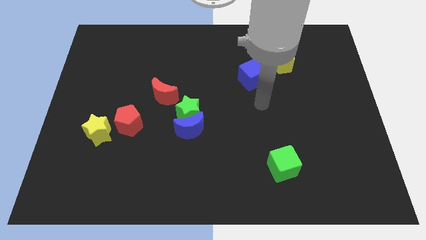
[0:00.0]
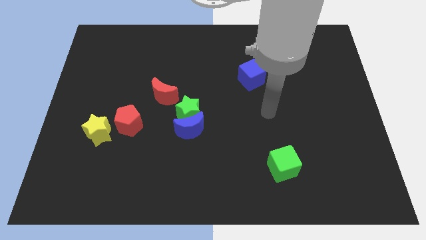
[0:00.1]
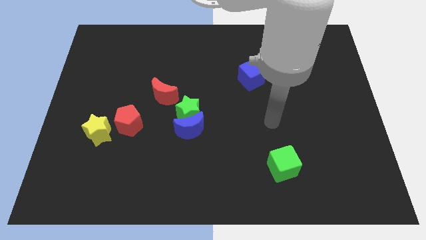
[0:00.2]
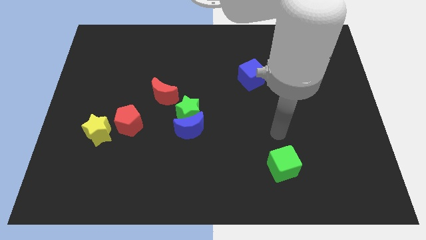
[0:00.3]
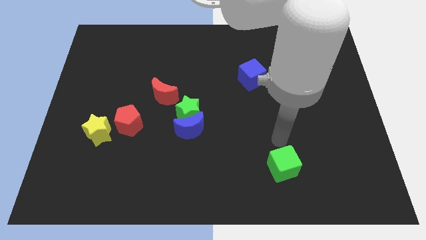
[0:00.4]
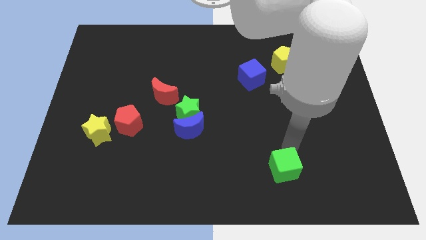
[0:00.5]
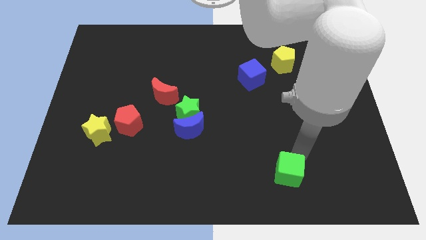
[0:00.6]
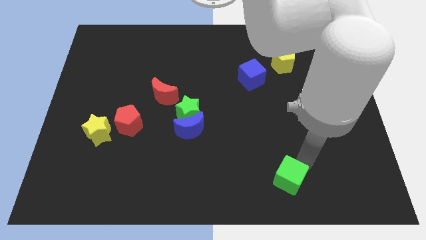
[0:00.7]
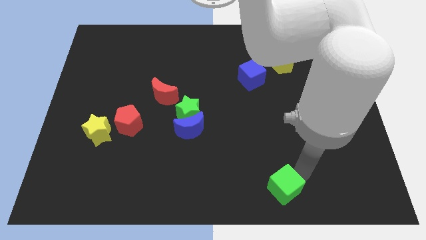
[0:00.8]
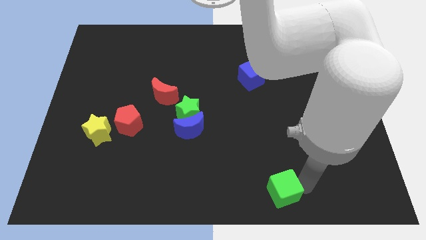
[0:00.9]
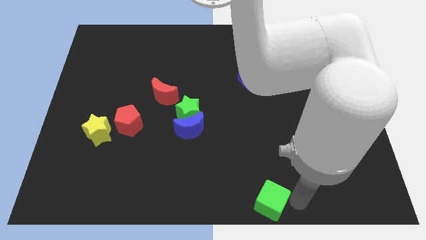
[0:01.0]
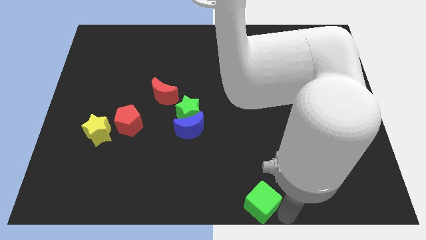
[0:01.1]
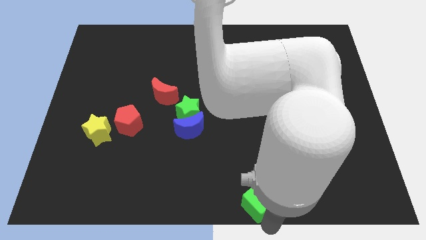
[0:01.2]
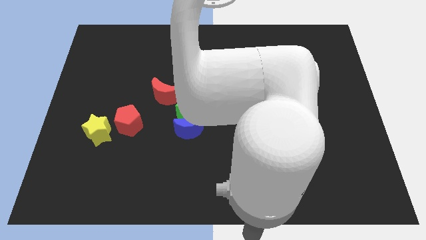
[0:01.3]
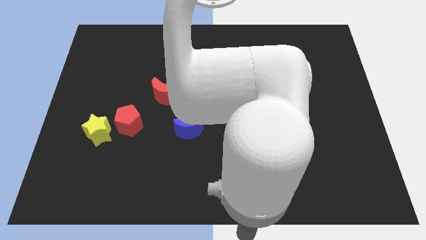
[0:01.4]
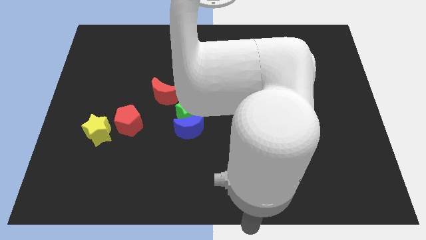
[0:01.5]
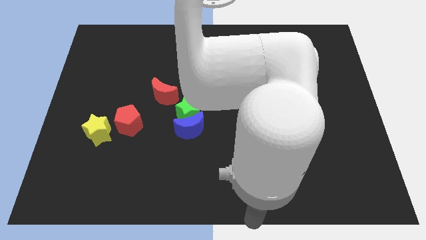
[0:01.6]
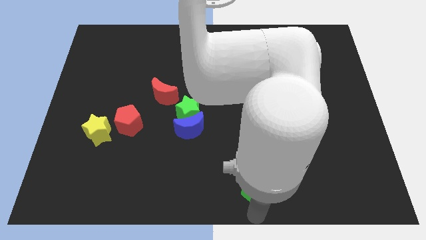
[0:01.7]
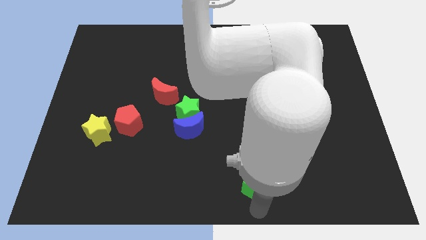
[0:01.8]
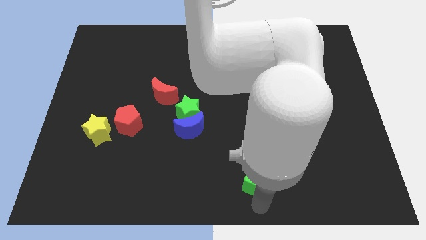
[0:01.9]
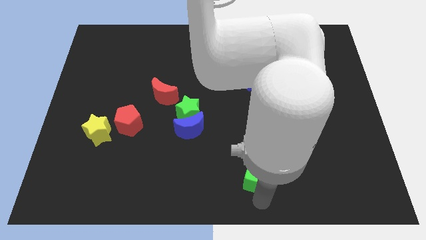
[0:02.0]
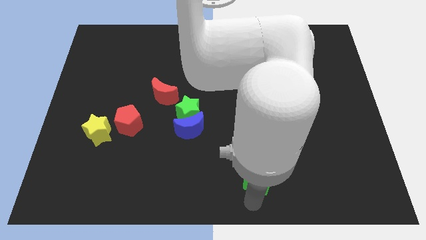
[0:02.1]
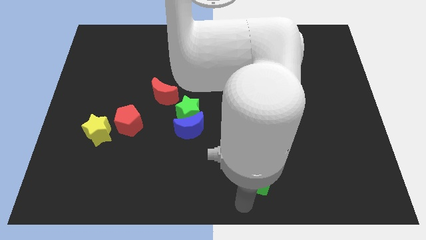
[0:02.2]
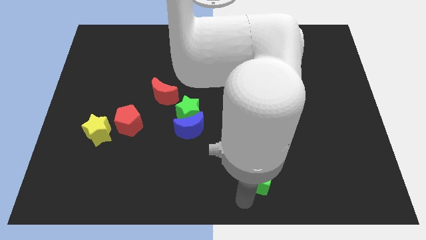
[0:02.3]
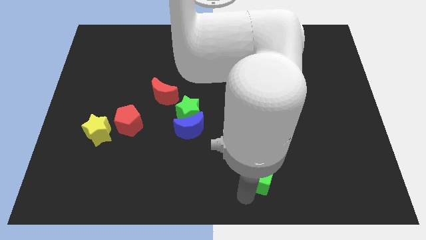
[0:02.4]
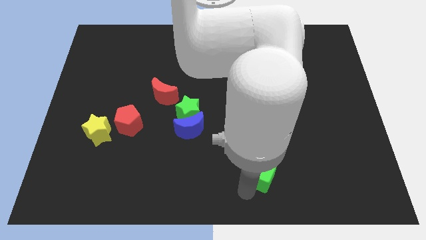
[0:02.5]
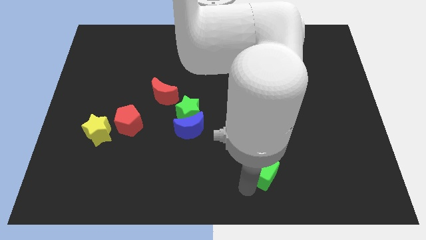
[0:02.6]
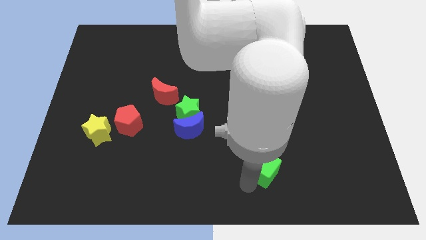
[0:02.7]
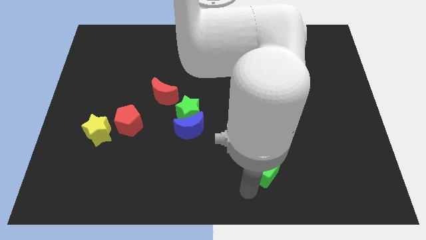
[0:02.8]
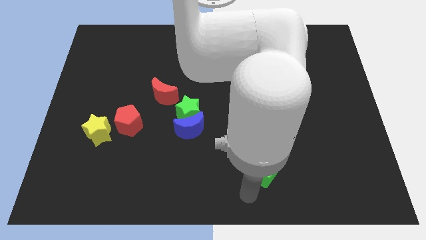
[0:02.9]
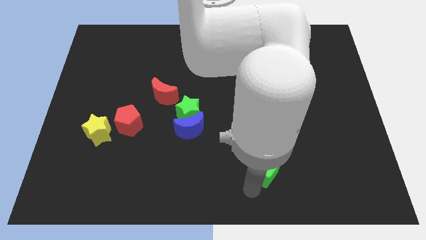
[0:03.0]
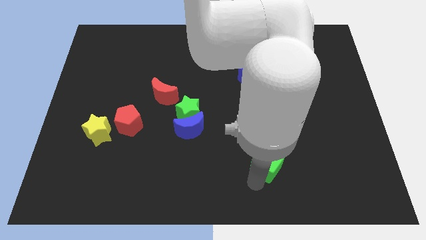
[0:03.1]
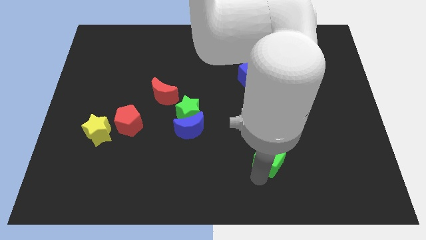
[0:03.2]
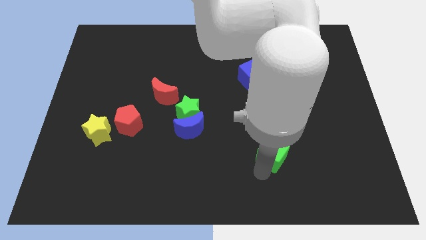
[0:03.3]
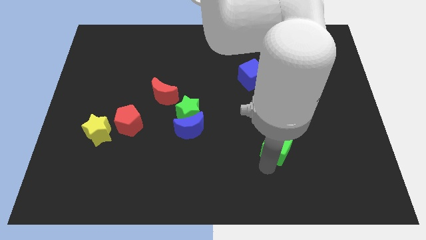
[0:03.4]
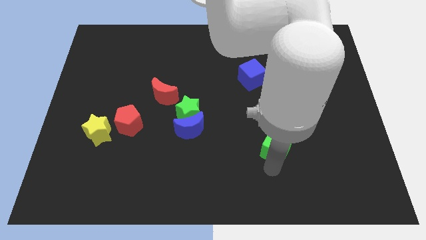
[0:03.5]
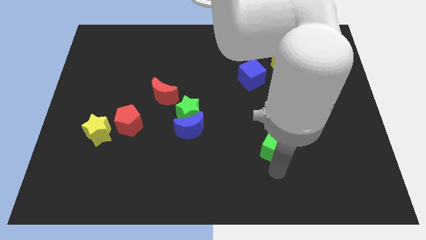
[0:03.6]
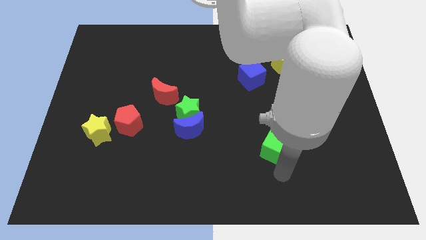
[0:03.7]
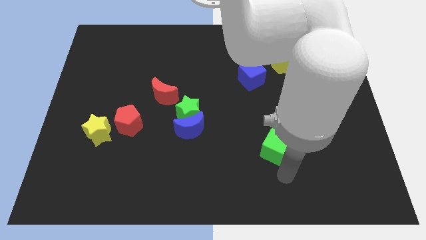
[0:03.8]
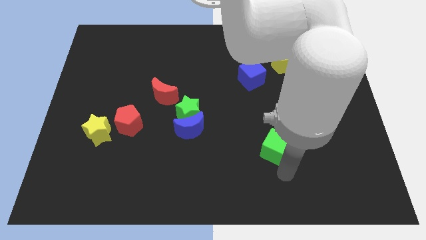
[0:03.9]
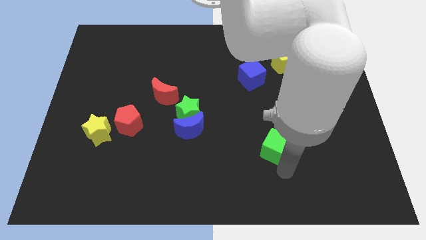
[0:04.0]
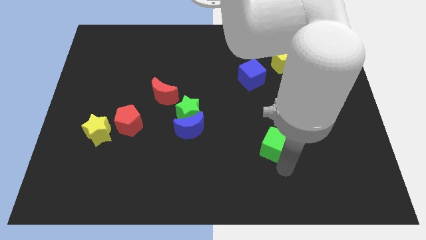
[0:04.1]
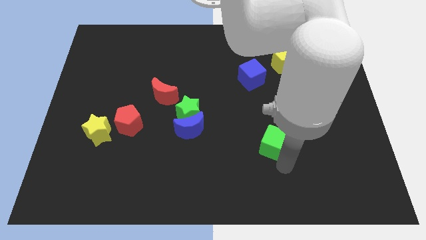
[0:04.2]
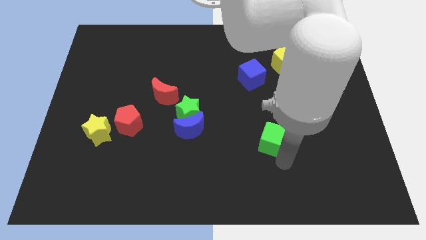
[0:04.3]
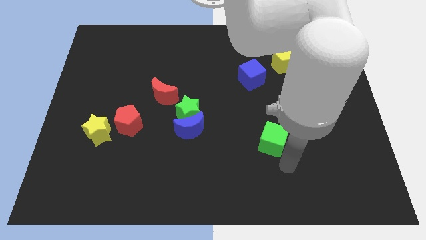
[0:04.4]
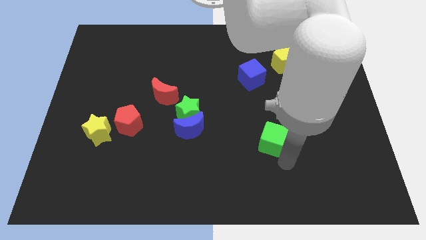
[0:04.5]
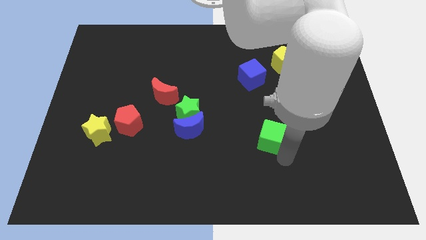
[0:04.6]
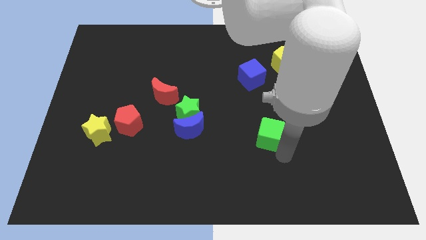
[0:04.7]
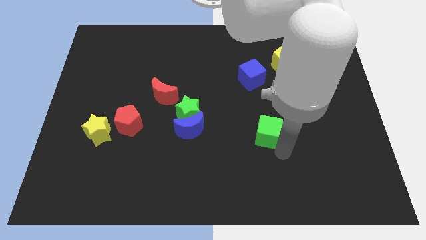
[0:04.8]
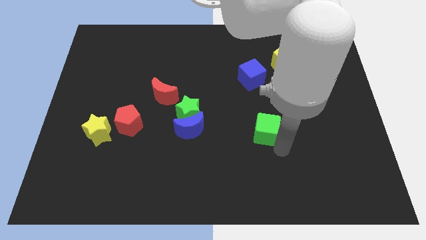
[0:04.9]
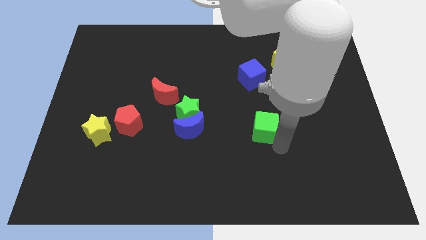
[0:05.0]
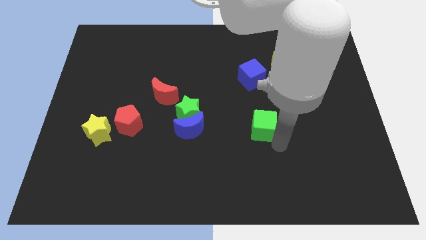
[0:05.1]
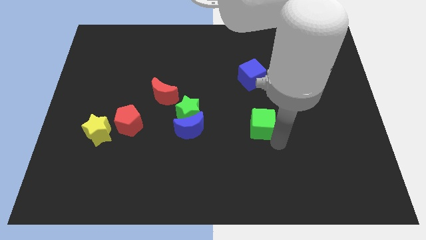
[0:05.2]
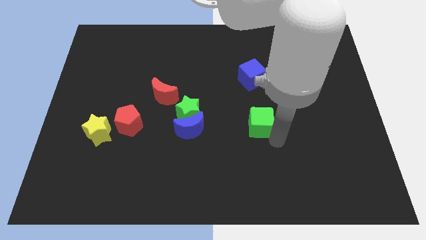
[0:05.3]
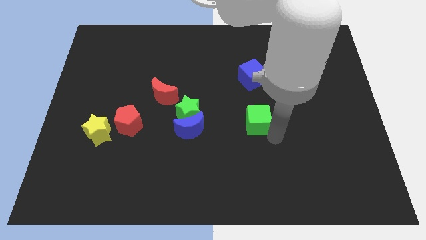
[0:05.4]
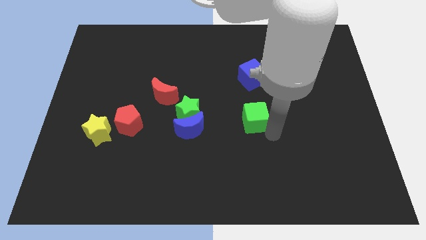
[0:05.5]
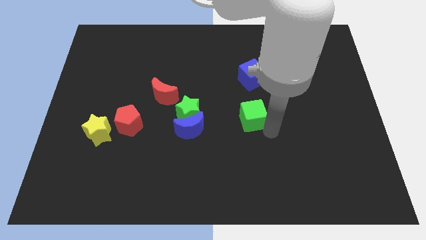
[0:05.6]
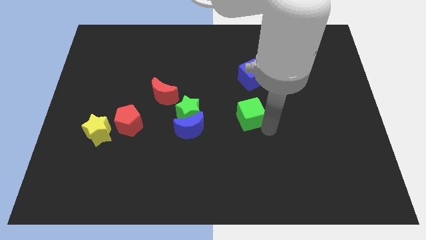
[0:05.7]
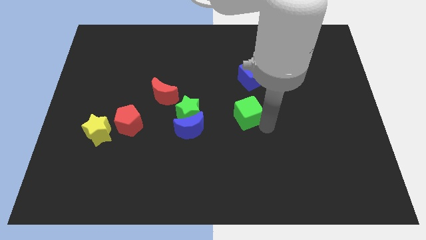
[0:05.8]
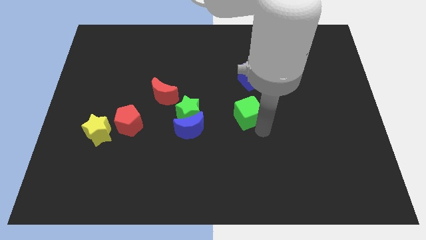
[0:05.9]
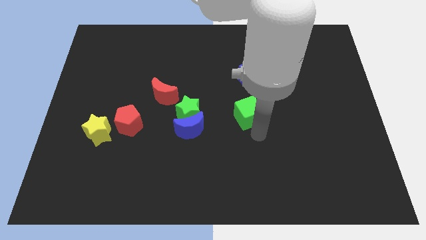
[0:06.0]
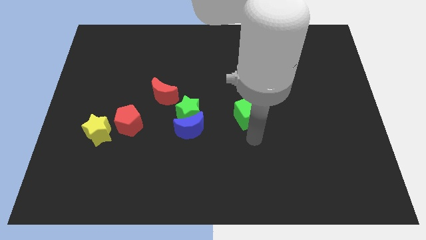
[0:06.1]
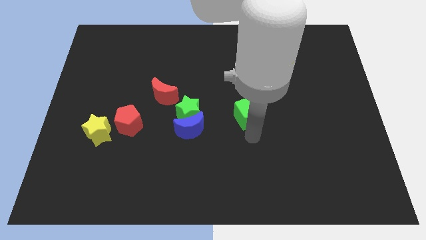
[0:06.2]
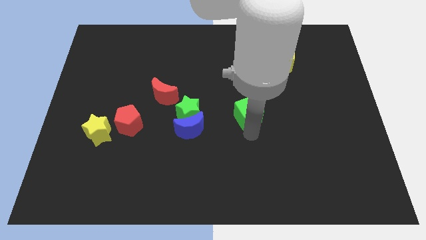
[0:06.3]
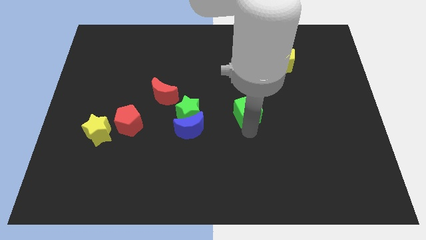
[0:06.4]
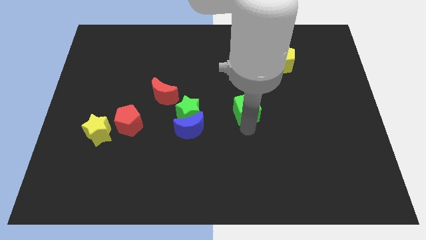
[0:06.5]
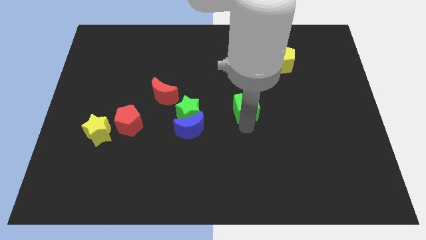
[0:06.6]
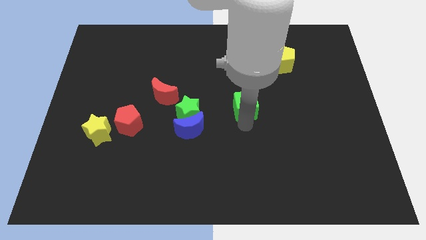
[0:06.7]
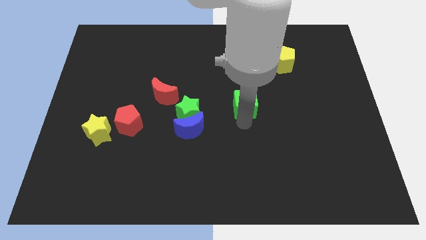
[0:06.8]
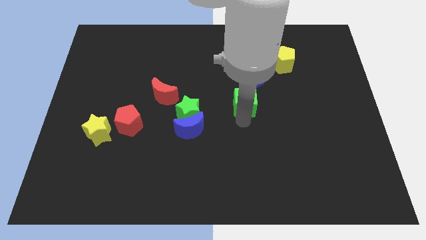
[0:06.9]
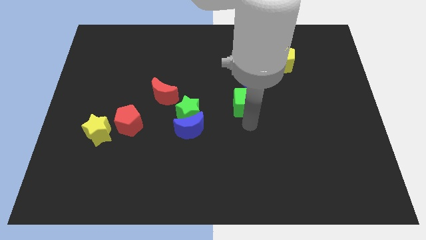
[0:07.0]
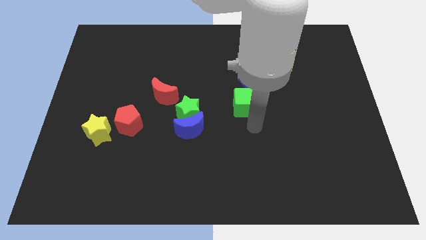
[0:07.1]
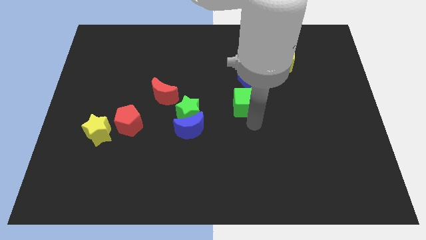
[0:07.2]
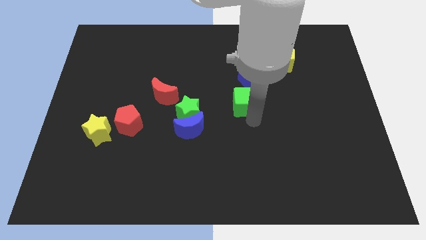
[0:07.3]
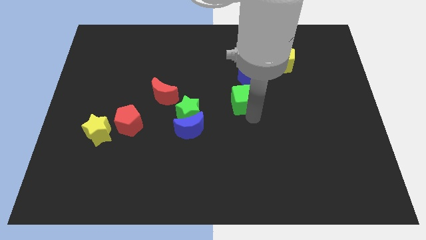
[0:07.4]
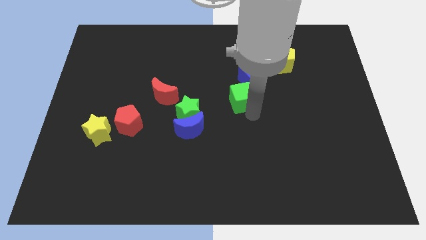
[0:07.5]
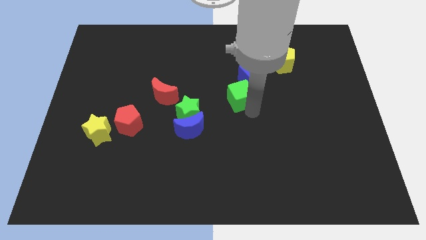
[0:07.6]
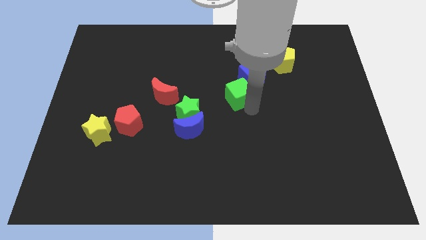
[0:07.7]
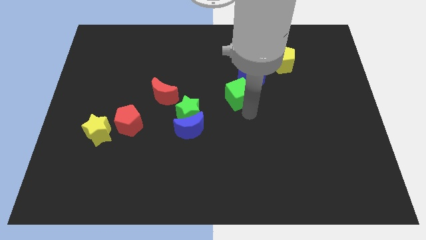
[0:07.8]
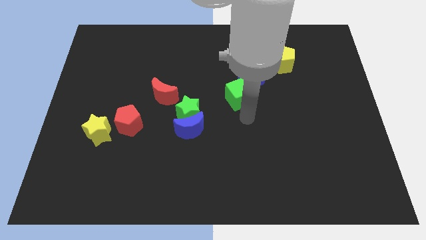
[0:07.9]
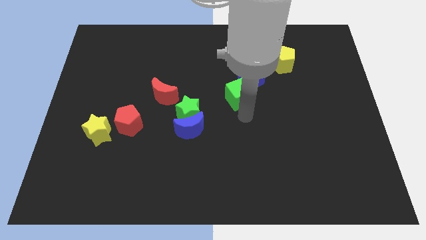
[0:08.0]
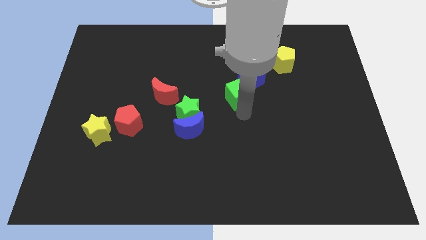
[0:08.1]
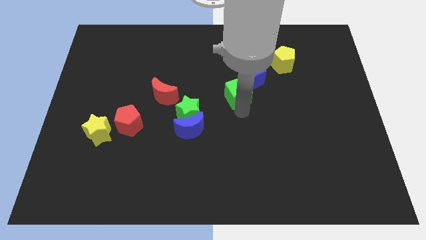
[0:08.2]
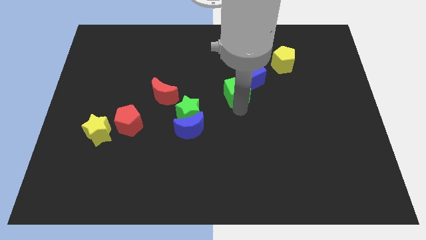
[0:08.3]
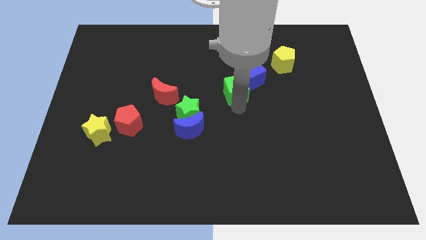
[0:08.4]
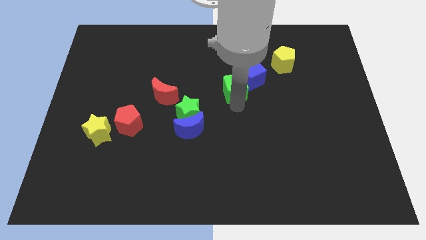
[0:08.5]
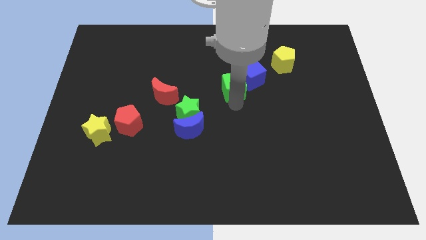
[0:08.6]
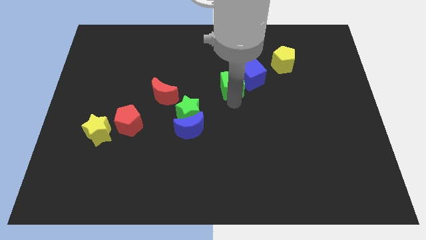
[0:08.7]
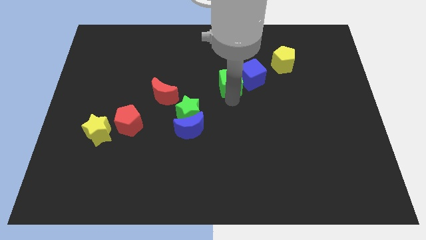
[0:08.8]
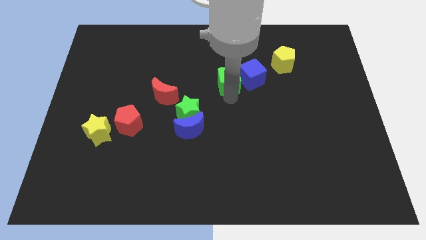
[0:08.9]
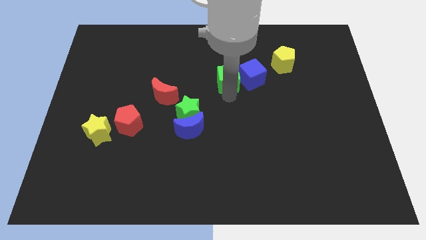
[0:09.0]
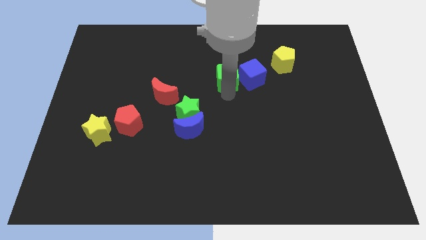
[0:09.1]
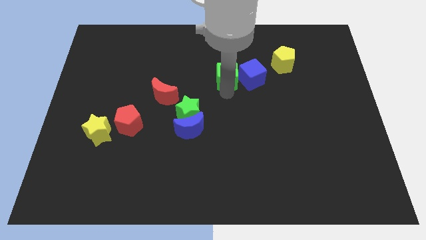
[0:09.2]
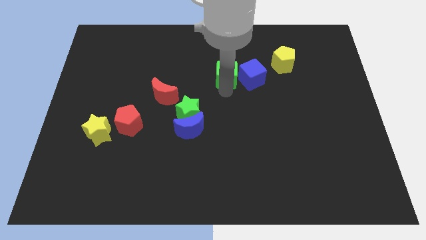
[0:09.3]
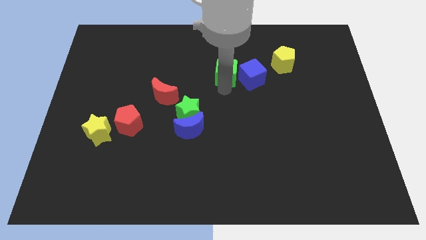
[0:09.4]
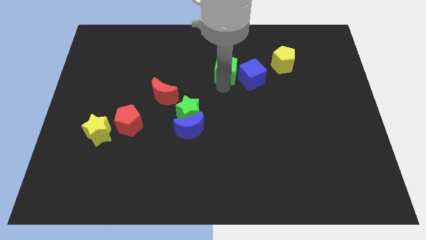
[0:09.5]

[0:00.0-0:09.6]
slide the green cube left of the yellow pentagon
